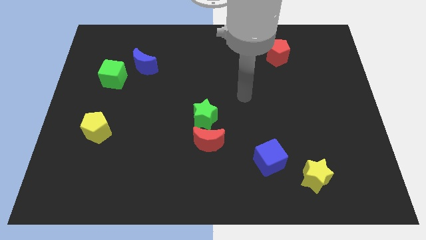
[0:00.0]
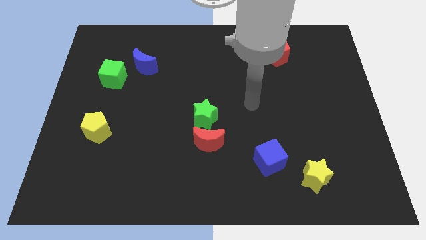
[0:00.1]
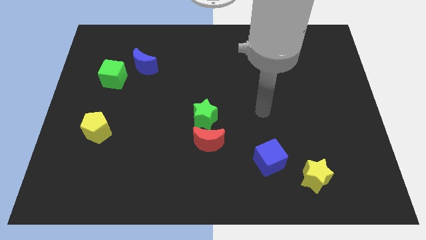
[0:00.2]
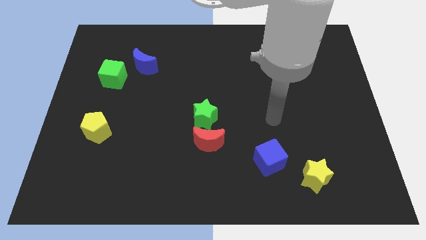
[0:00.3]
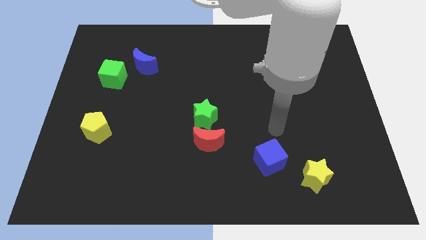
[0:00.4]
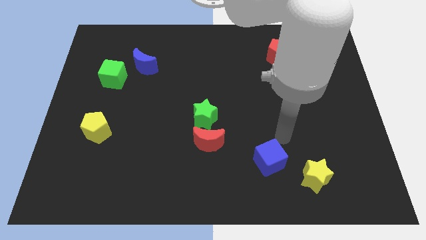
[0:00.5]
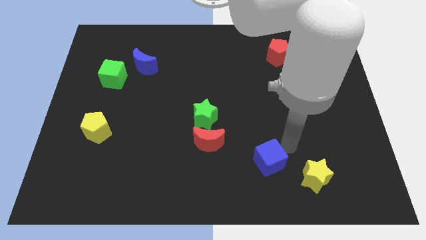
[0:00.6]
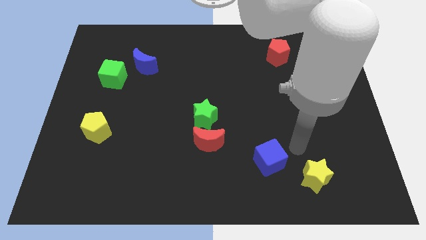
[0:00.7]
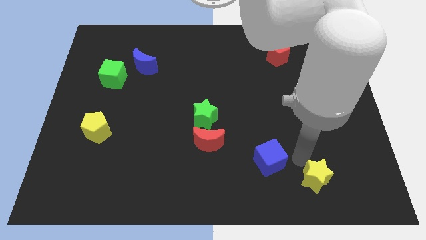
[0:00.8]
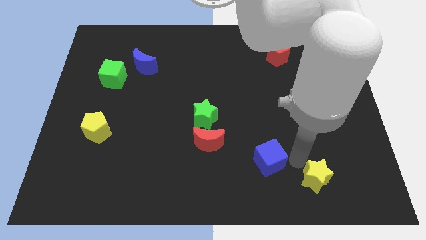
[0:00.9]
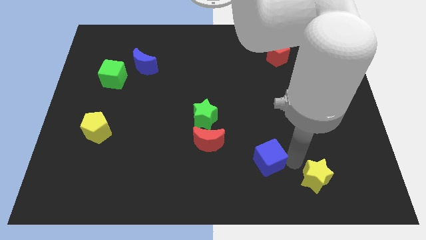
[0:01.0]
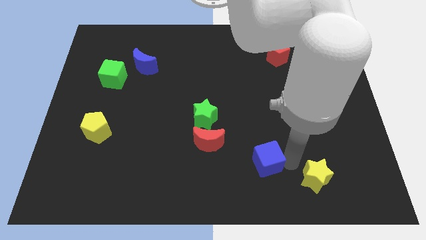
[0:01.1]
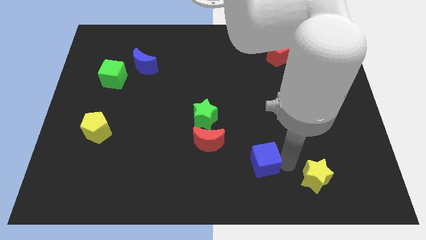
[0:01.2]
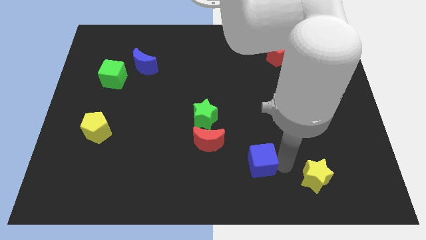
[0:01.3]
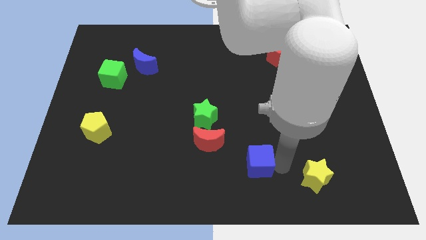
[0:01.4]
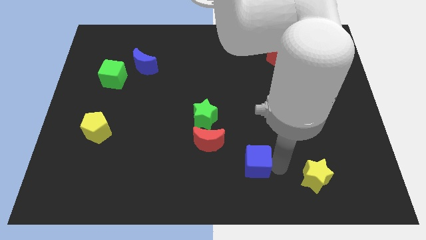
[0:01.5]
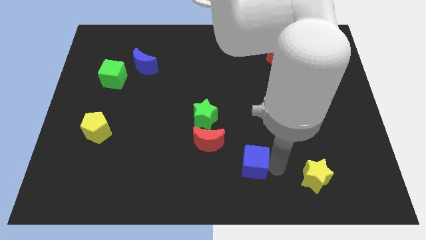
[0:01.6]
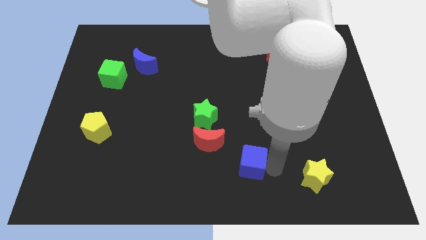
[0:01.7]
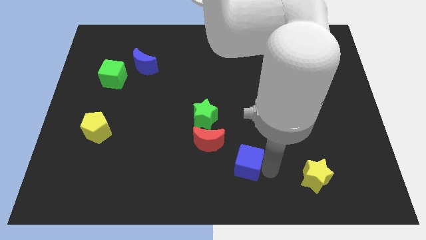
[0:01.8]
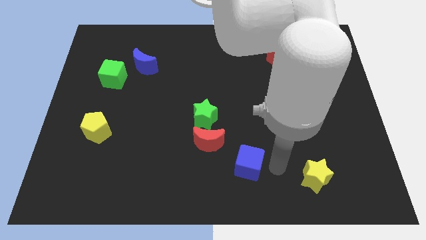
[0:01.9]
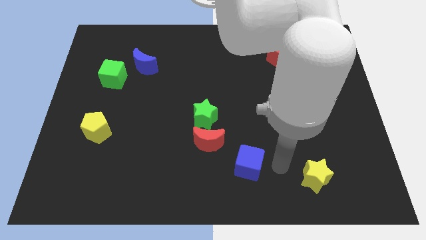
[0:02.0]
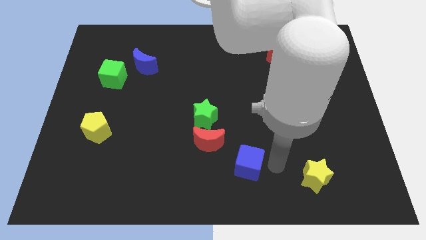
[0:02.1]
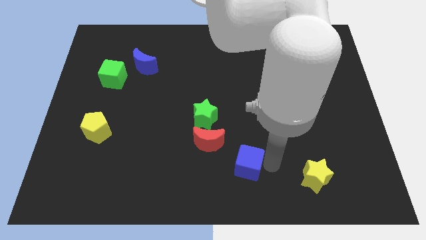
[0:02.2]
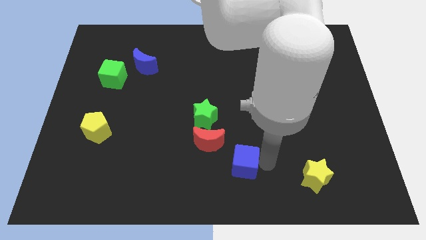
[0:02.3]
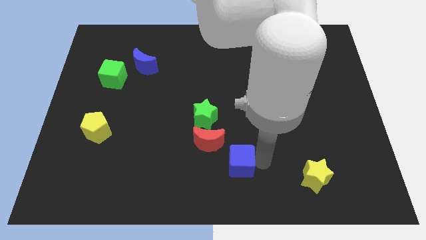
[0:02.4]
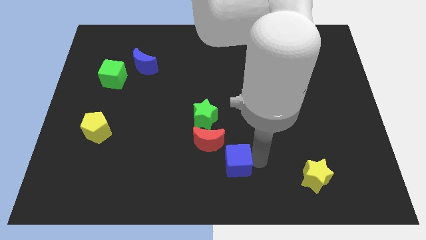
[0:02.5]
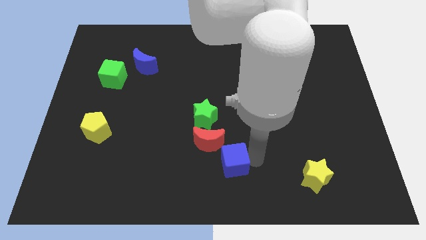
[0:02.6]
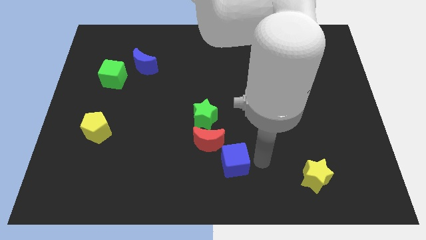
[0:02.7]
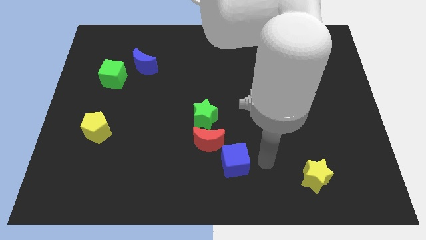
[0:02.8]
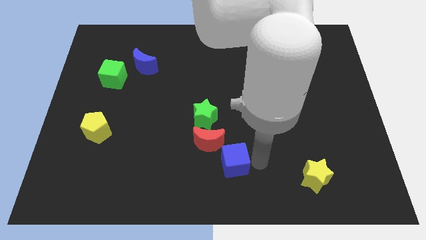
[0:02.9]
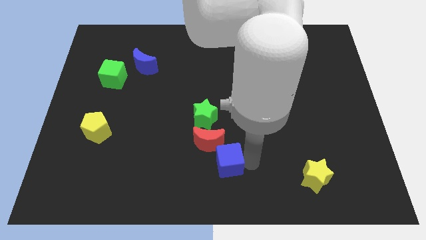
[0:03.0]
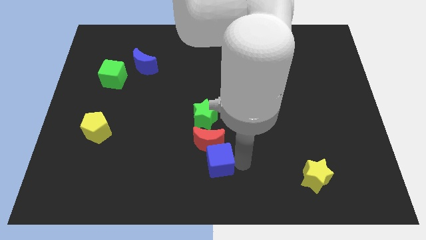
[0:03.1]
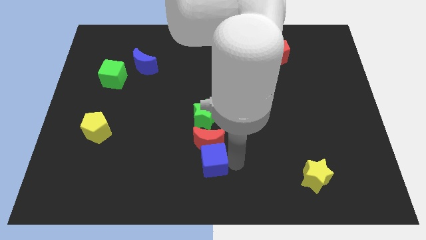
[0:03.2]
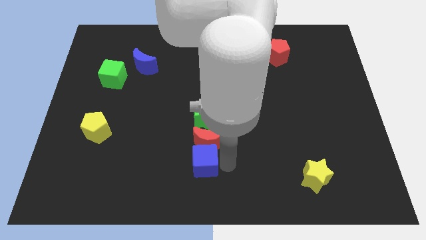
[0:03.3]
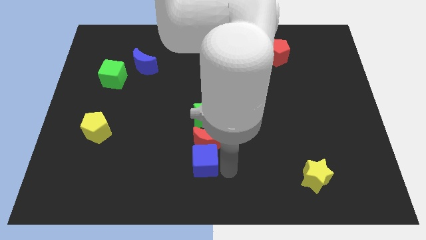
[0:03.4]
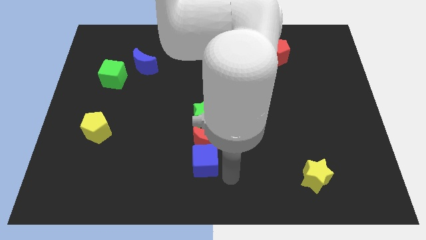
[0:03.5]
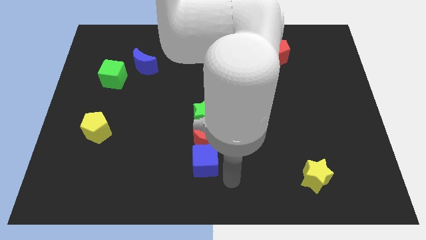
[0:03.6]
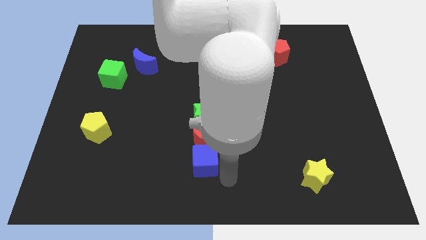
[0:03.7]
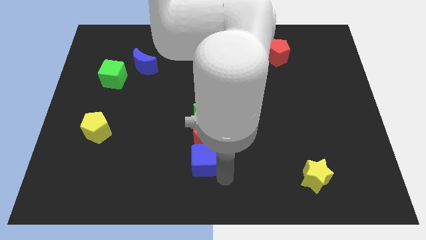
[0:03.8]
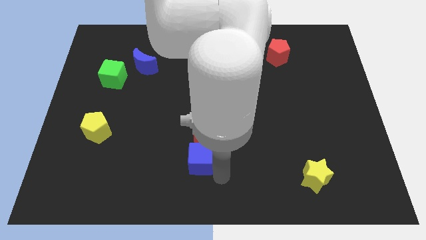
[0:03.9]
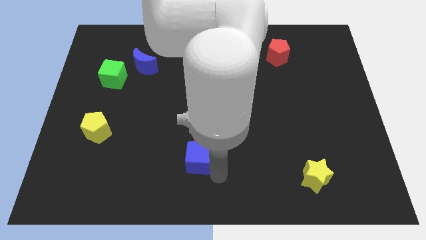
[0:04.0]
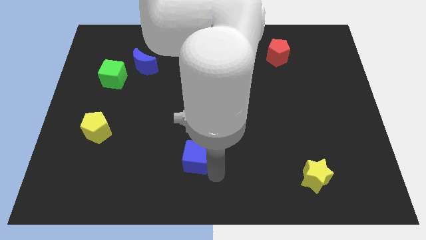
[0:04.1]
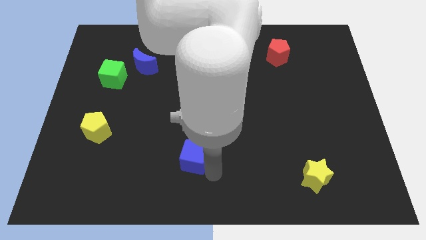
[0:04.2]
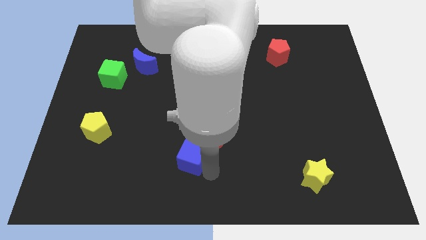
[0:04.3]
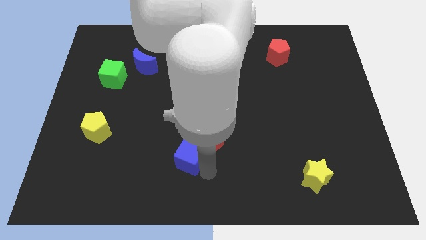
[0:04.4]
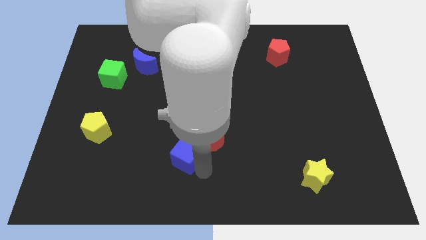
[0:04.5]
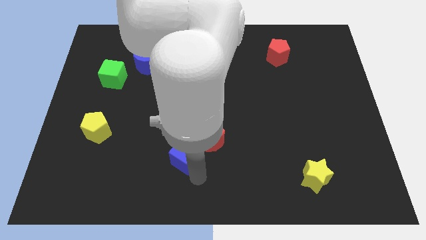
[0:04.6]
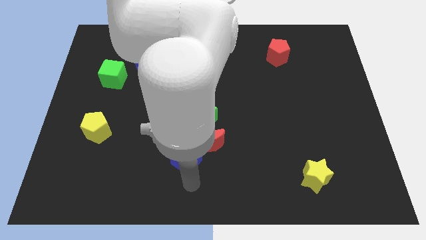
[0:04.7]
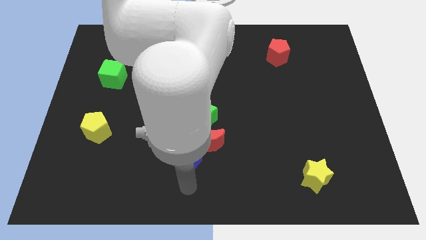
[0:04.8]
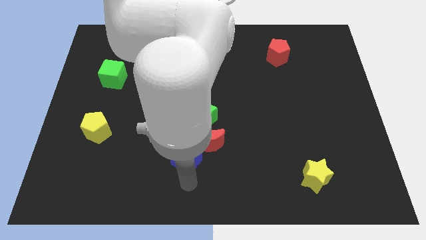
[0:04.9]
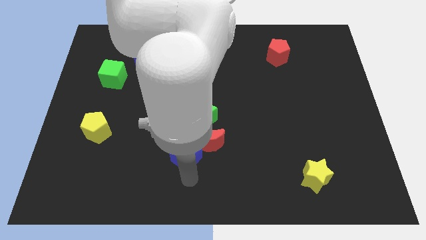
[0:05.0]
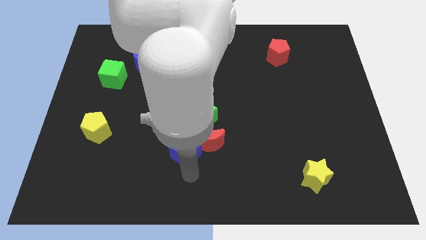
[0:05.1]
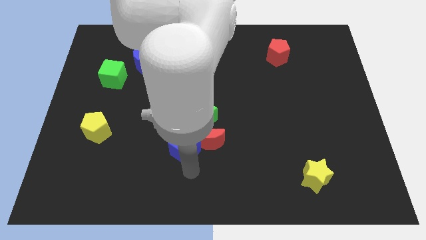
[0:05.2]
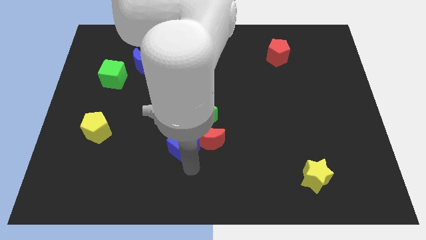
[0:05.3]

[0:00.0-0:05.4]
put the blue cube to the top left of the red moon

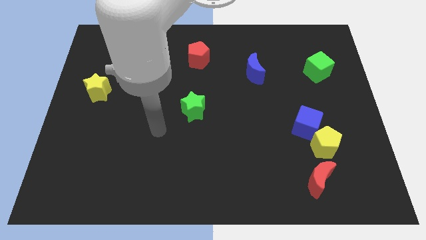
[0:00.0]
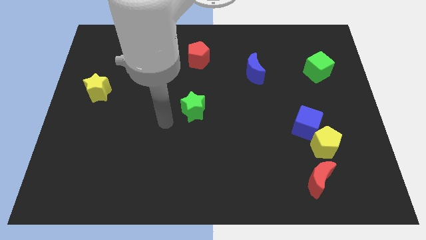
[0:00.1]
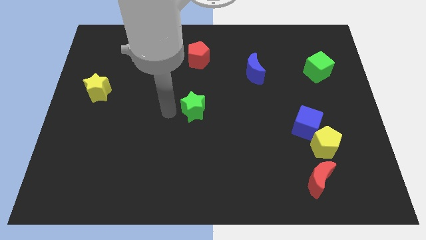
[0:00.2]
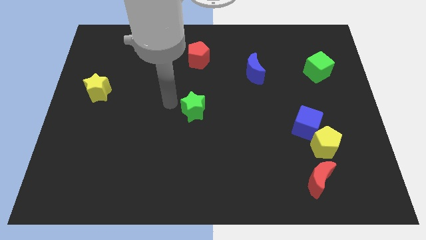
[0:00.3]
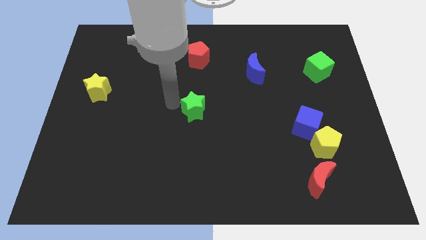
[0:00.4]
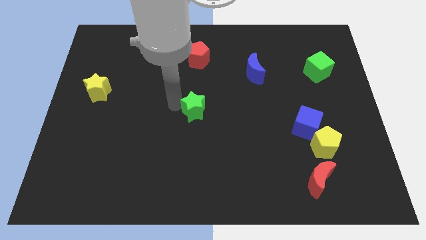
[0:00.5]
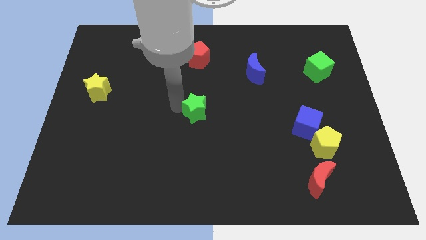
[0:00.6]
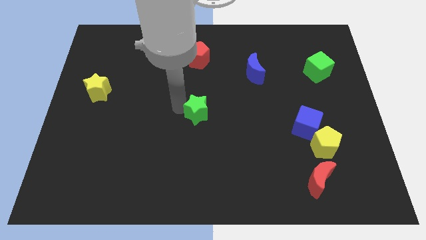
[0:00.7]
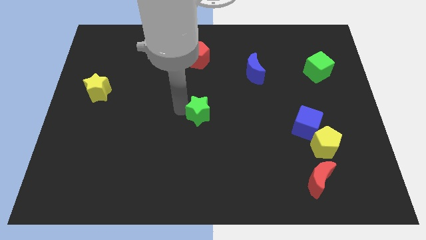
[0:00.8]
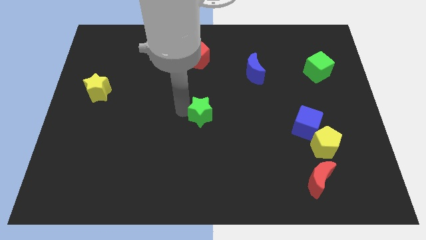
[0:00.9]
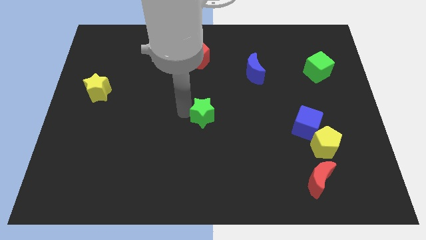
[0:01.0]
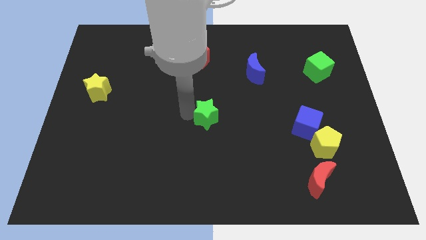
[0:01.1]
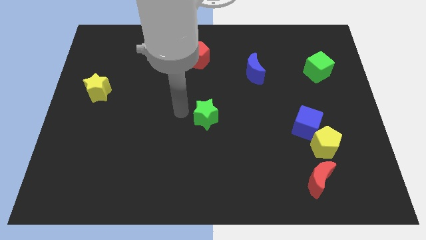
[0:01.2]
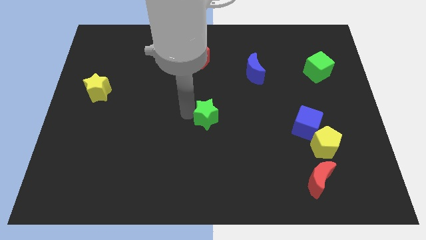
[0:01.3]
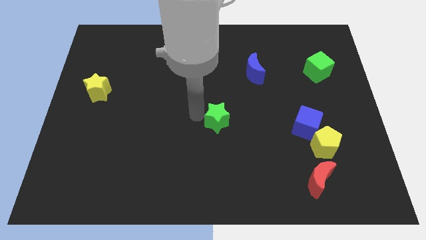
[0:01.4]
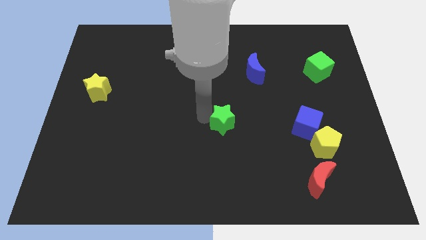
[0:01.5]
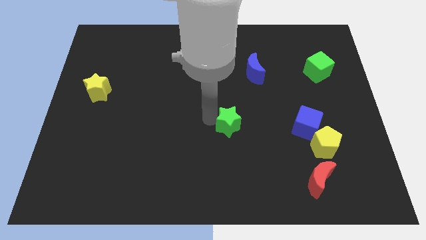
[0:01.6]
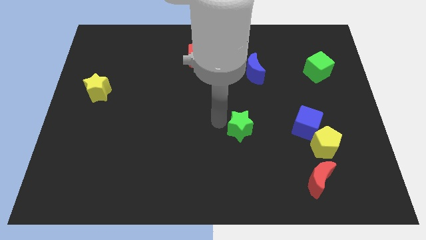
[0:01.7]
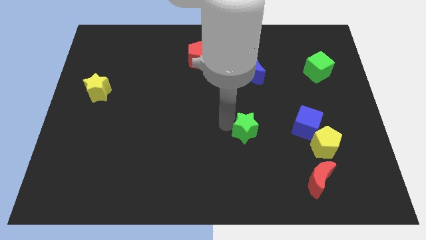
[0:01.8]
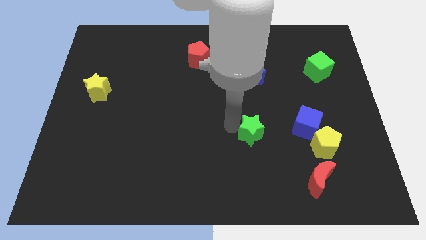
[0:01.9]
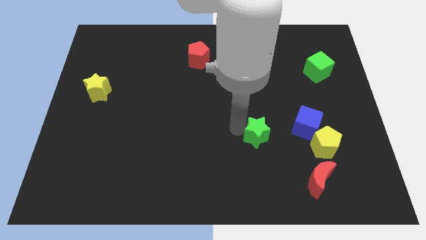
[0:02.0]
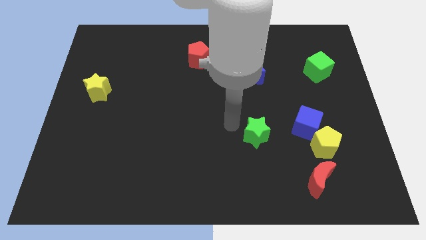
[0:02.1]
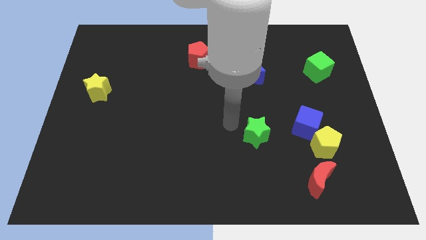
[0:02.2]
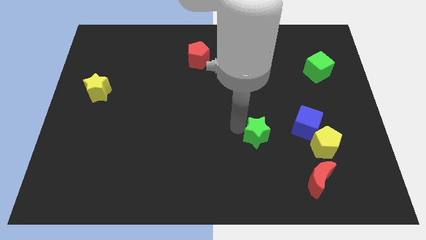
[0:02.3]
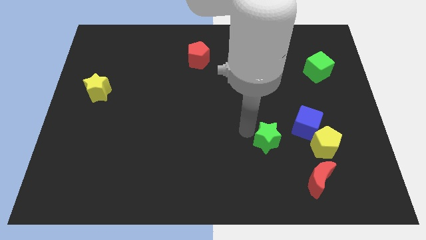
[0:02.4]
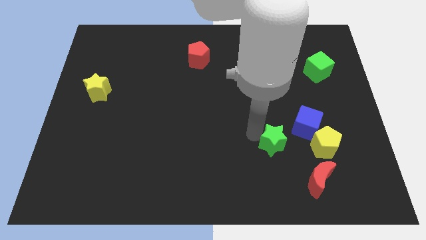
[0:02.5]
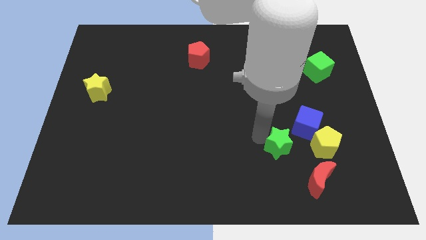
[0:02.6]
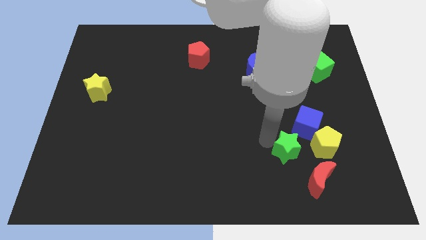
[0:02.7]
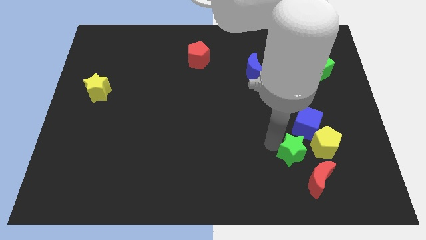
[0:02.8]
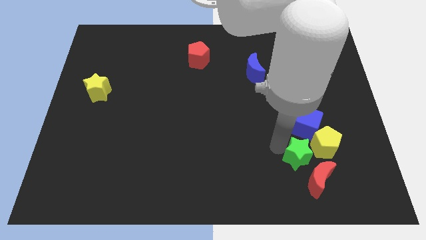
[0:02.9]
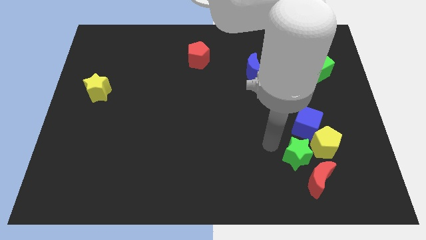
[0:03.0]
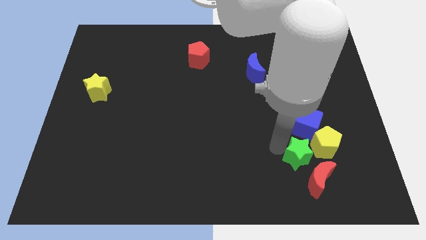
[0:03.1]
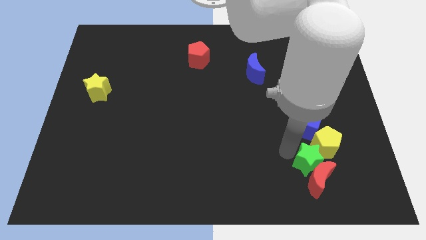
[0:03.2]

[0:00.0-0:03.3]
push the green star diagonally up and to the right of the red moon
